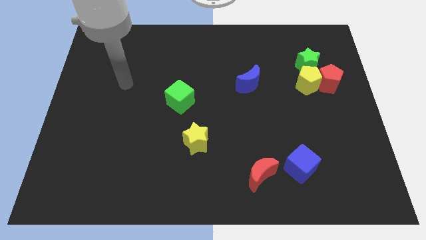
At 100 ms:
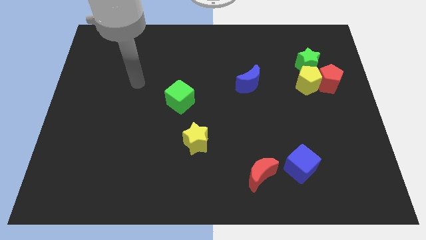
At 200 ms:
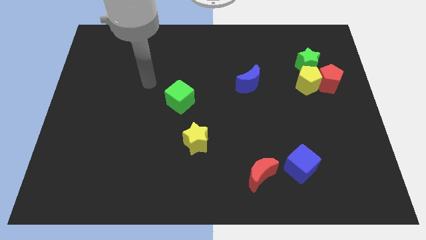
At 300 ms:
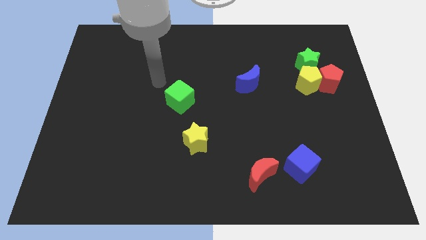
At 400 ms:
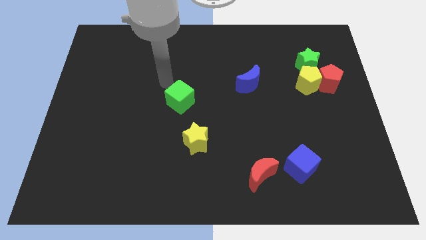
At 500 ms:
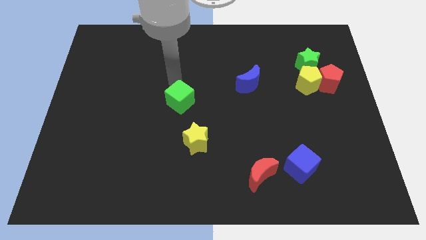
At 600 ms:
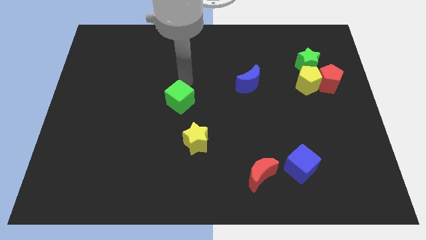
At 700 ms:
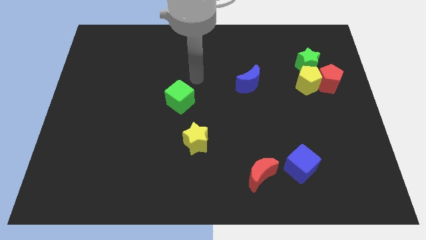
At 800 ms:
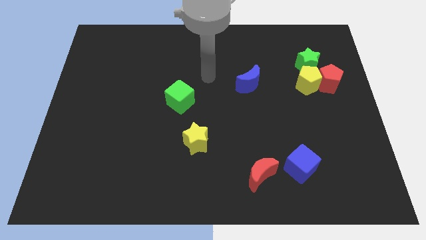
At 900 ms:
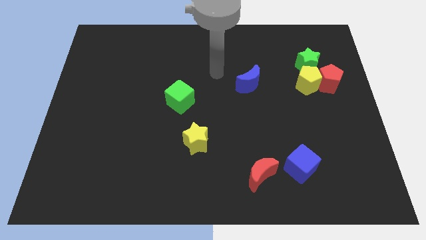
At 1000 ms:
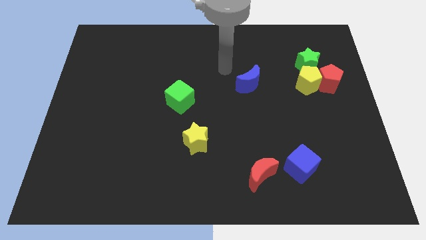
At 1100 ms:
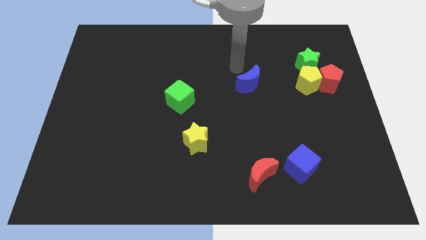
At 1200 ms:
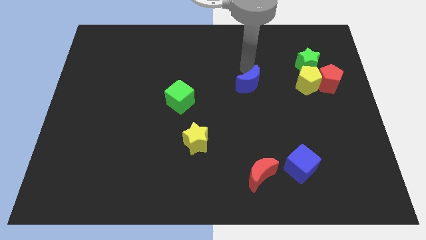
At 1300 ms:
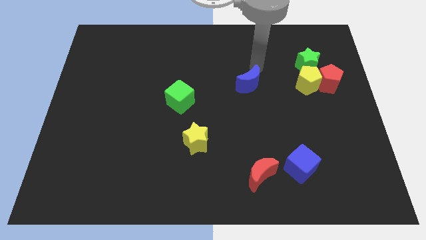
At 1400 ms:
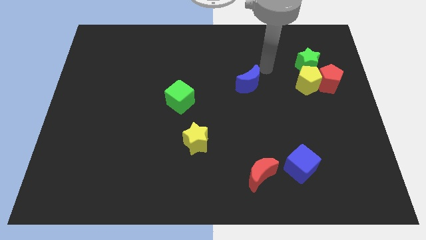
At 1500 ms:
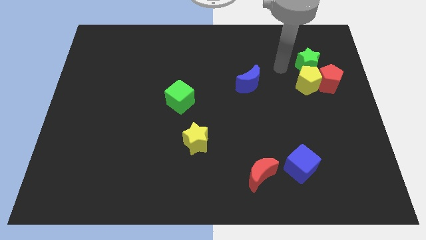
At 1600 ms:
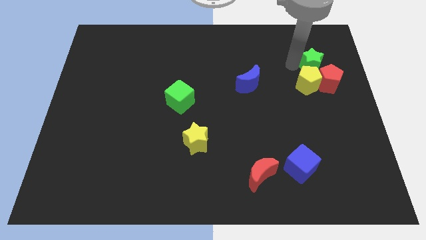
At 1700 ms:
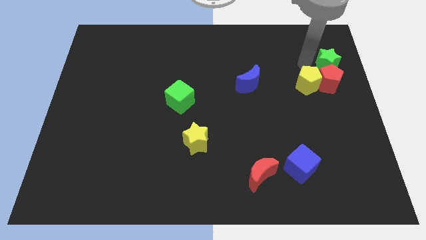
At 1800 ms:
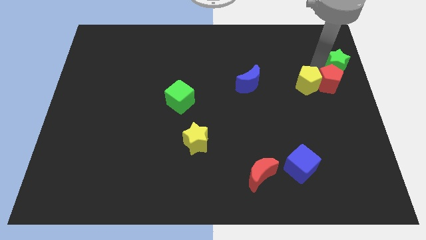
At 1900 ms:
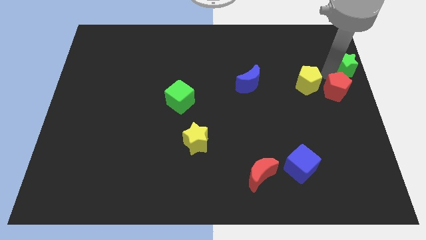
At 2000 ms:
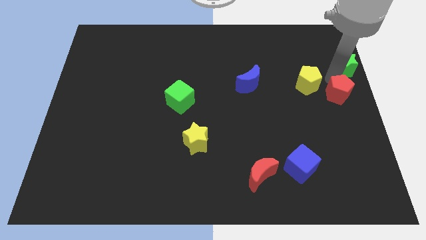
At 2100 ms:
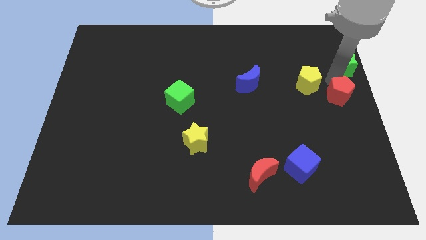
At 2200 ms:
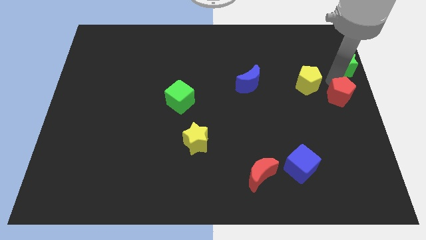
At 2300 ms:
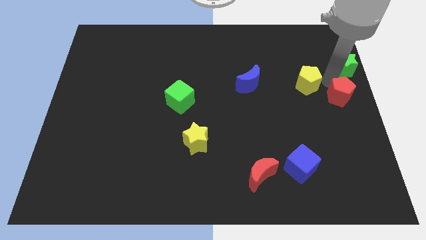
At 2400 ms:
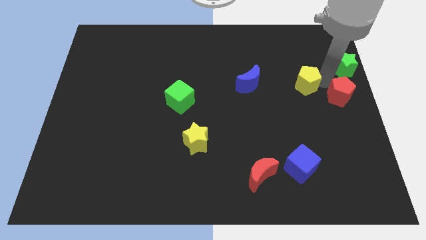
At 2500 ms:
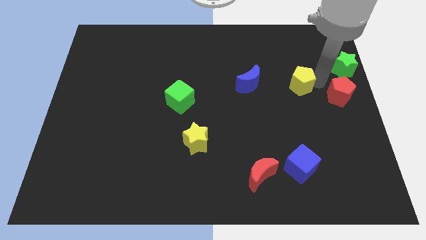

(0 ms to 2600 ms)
pull the yellow pentagon apart from the red pentagon and green star

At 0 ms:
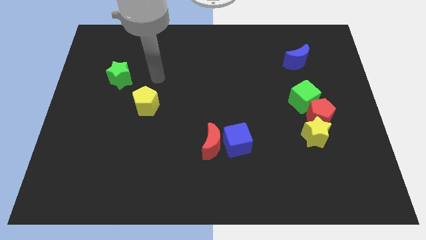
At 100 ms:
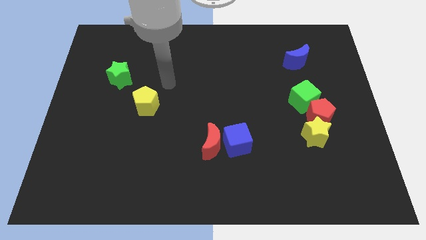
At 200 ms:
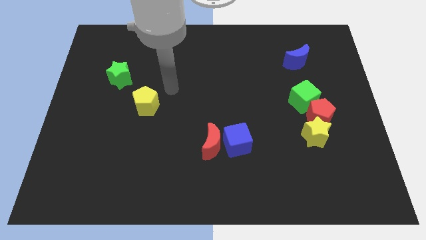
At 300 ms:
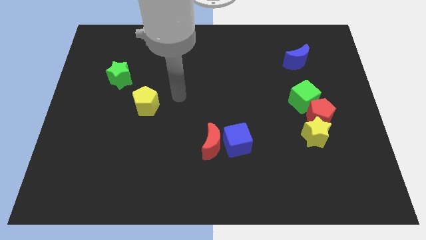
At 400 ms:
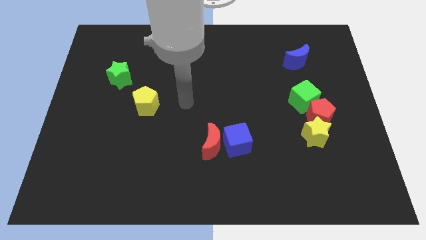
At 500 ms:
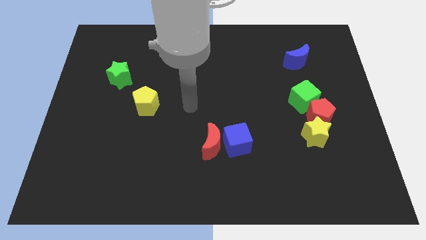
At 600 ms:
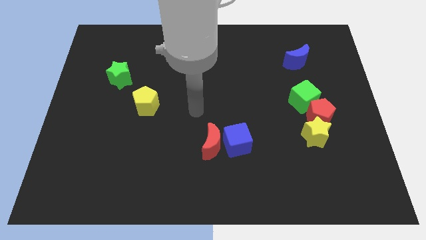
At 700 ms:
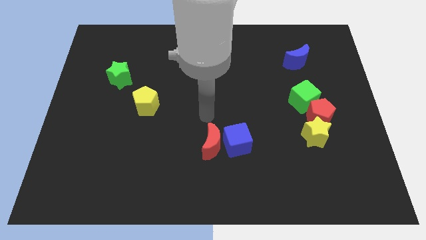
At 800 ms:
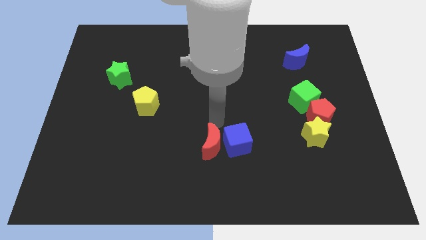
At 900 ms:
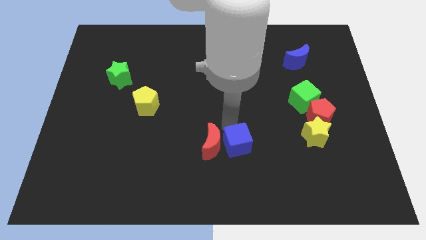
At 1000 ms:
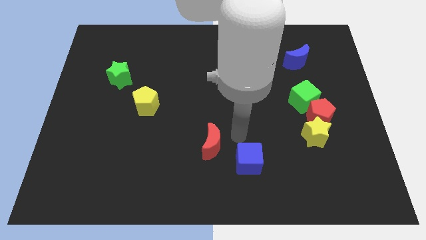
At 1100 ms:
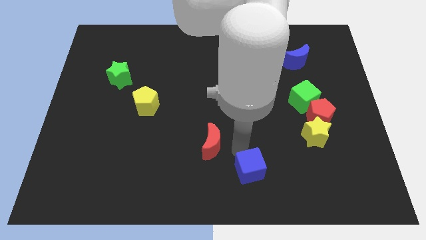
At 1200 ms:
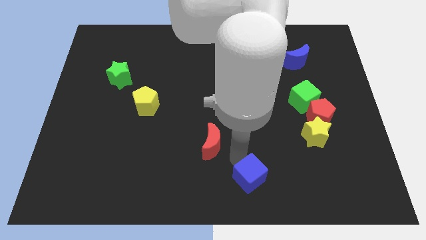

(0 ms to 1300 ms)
move the red moon away from the blue cube

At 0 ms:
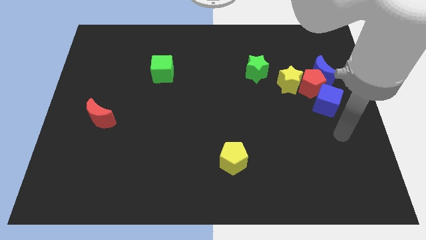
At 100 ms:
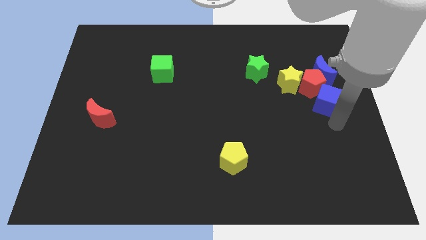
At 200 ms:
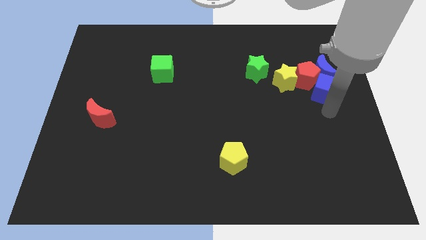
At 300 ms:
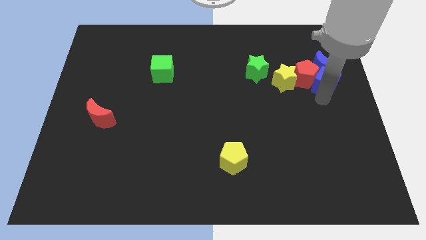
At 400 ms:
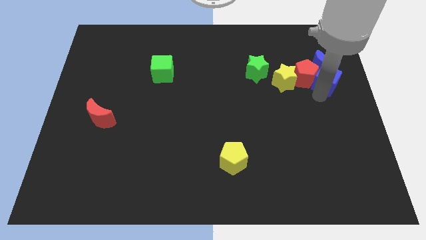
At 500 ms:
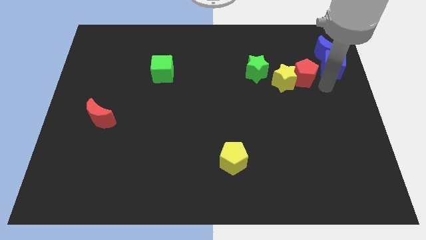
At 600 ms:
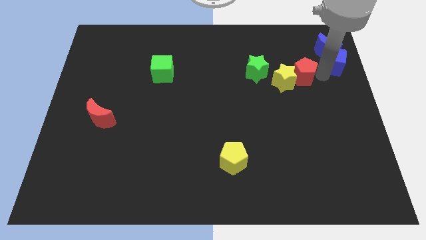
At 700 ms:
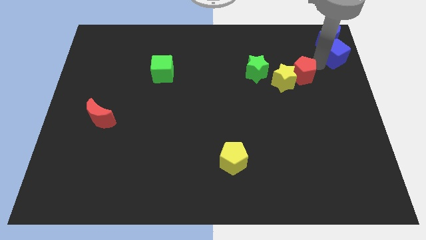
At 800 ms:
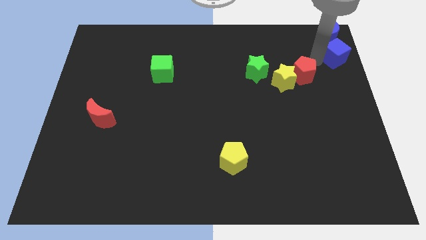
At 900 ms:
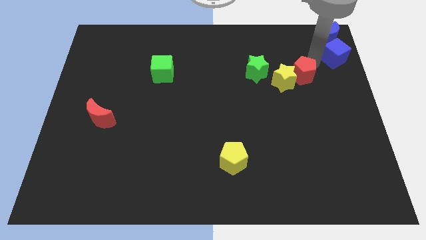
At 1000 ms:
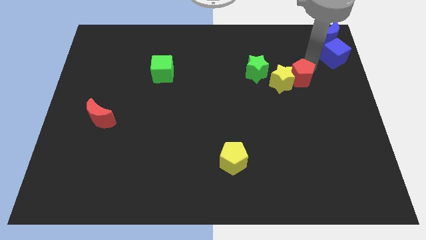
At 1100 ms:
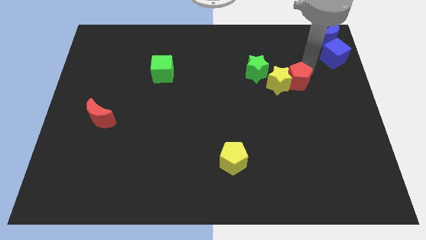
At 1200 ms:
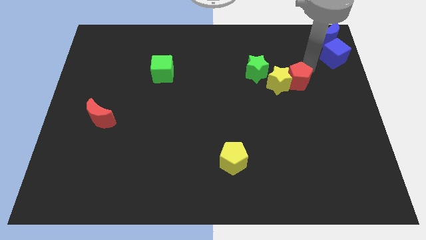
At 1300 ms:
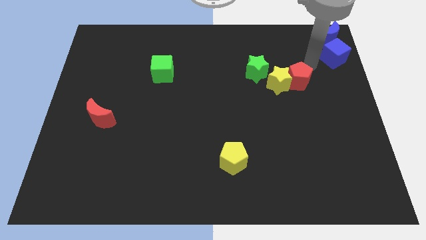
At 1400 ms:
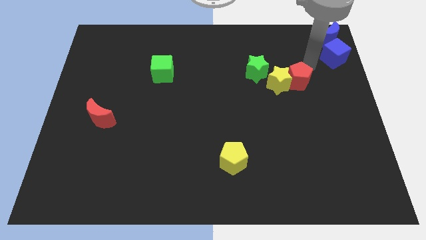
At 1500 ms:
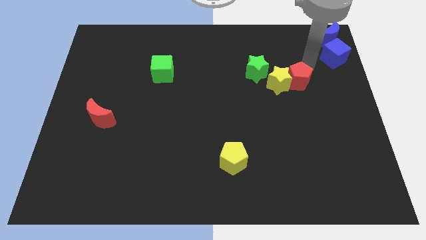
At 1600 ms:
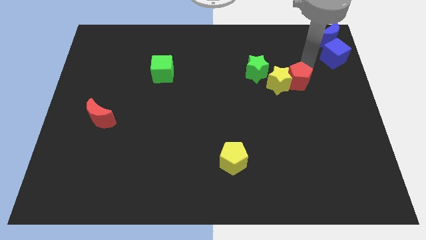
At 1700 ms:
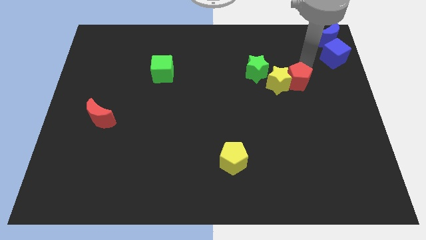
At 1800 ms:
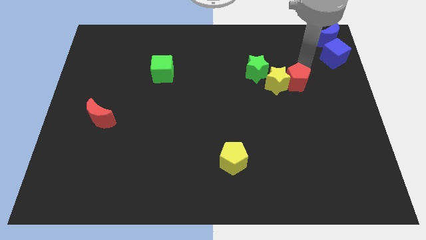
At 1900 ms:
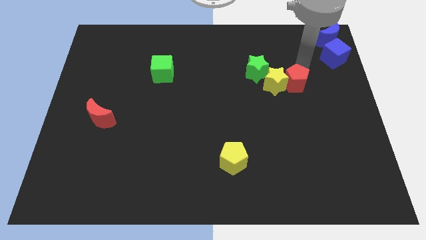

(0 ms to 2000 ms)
separate the red pentagon from the blue moon, yellow star, and blue cube

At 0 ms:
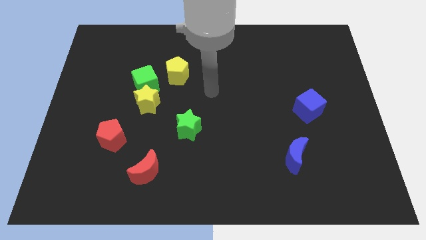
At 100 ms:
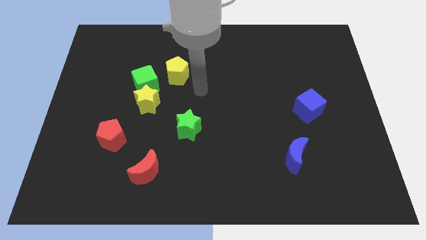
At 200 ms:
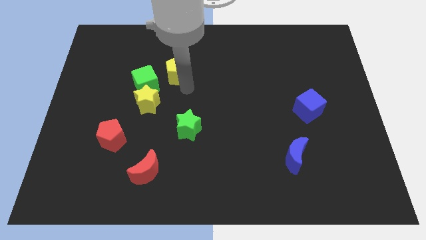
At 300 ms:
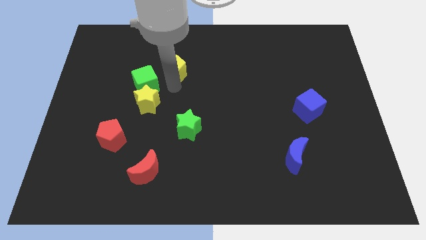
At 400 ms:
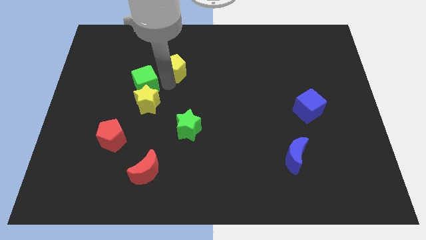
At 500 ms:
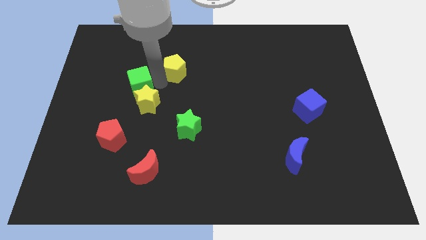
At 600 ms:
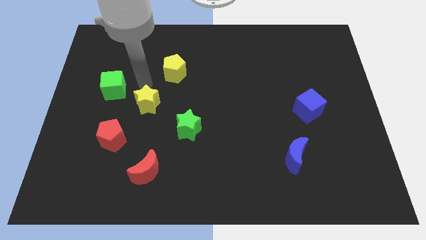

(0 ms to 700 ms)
pull the yellow star apart from the green cube

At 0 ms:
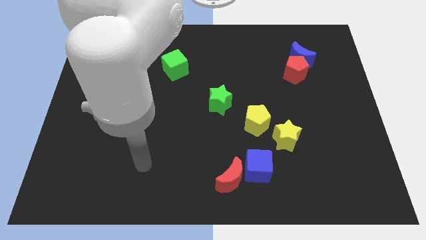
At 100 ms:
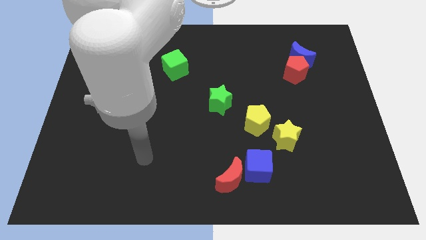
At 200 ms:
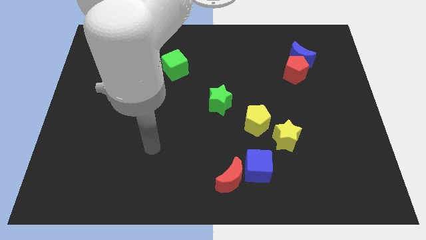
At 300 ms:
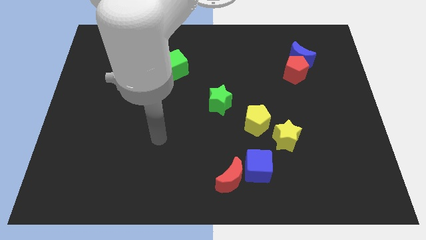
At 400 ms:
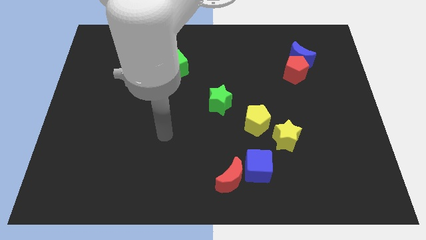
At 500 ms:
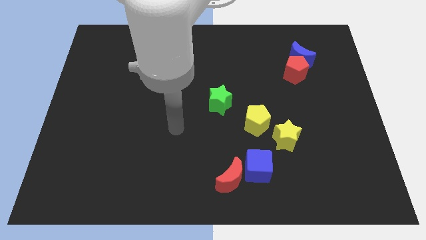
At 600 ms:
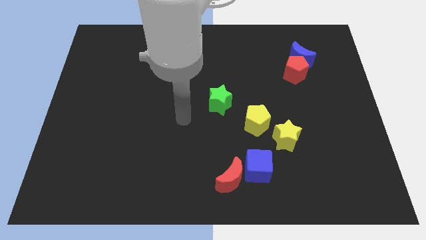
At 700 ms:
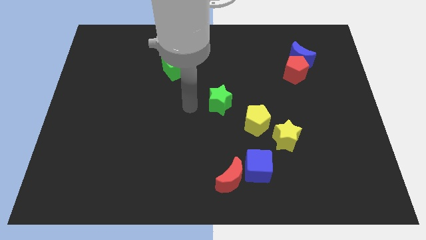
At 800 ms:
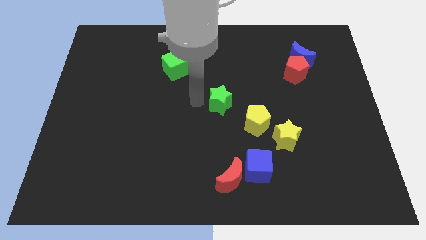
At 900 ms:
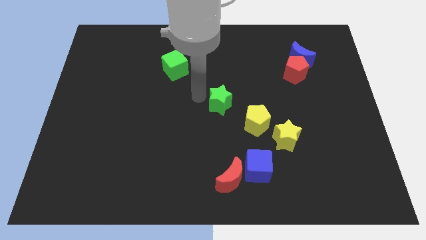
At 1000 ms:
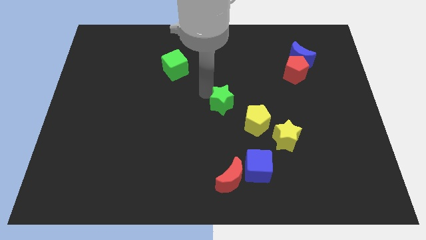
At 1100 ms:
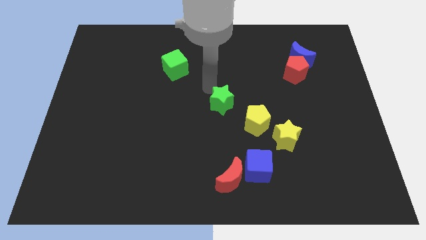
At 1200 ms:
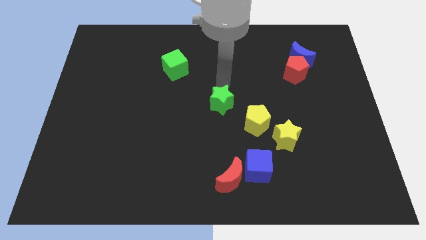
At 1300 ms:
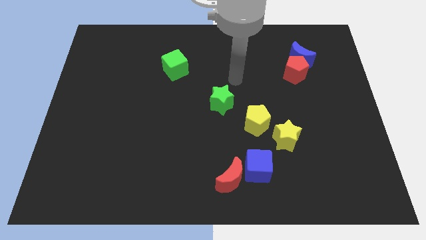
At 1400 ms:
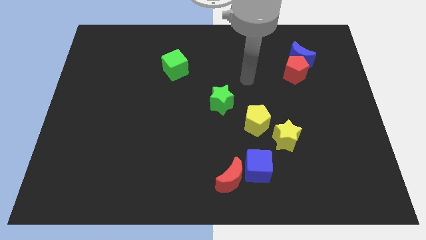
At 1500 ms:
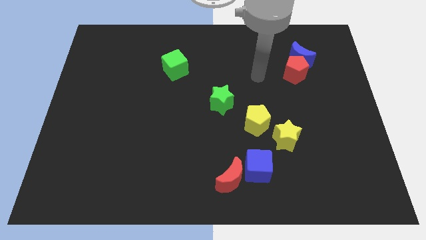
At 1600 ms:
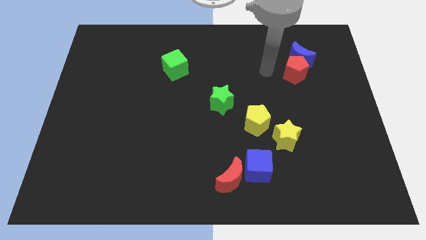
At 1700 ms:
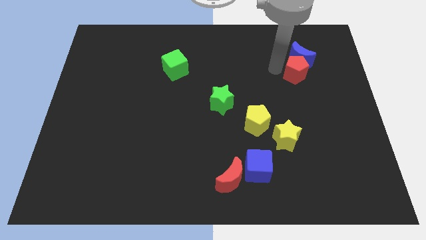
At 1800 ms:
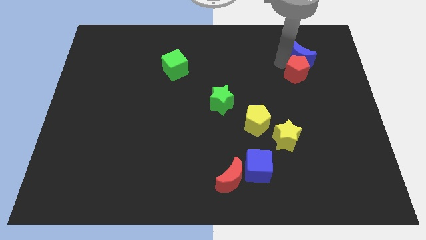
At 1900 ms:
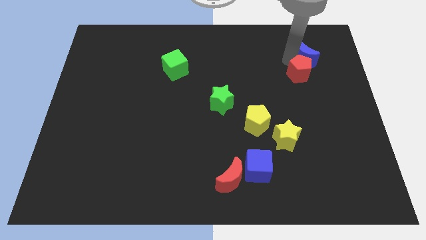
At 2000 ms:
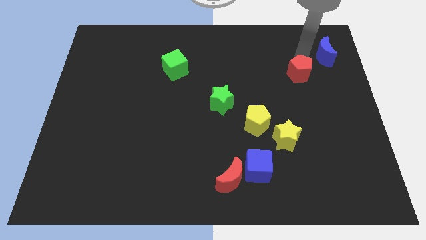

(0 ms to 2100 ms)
separate the red pentagon from the blue moon

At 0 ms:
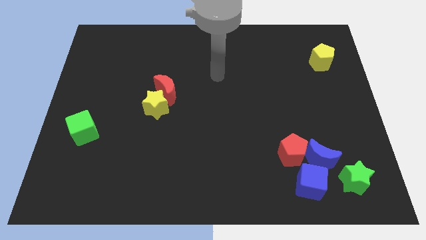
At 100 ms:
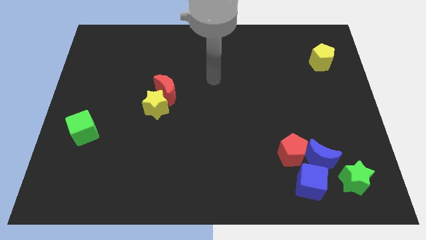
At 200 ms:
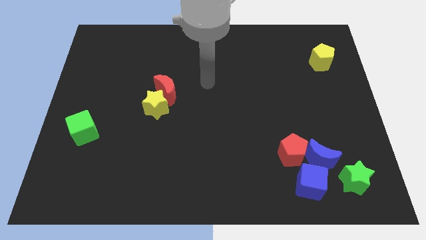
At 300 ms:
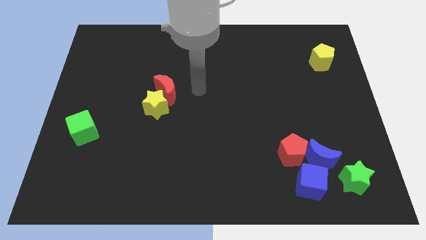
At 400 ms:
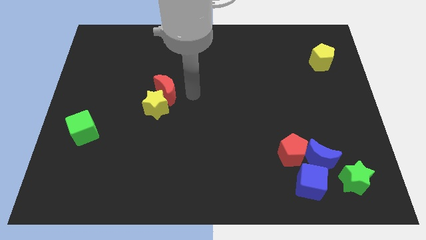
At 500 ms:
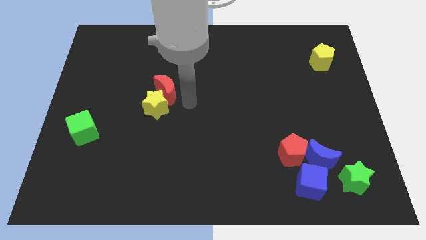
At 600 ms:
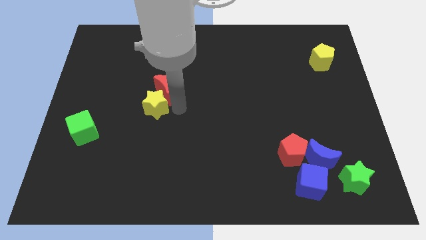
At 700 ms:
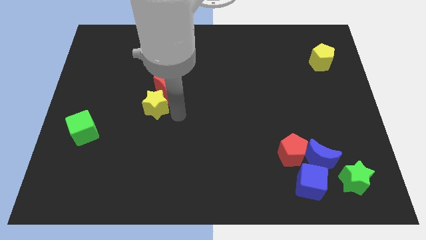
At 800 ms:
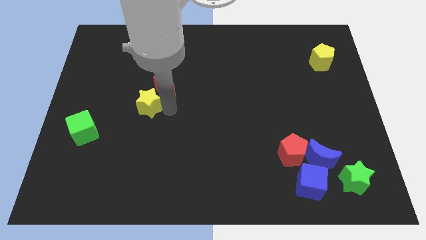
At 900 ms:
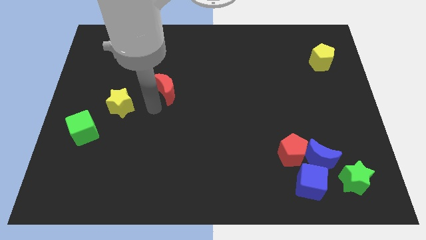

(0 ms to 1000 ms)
move the red moon away from the yellow star
